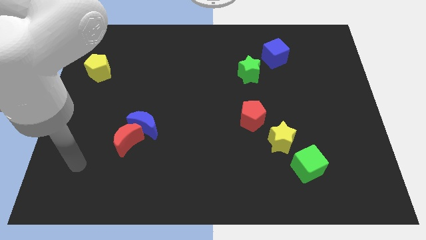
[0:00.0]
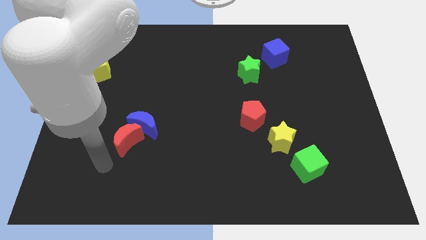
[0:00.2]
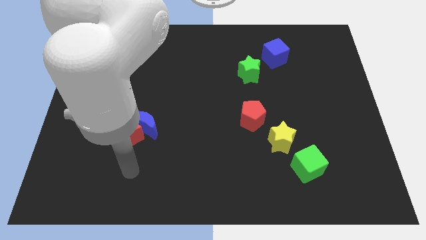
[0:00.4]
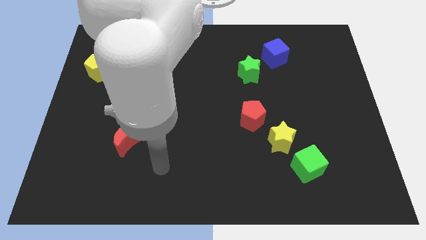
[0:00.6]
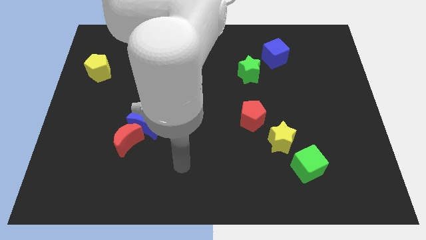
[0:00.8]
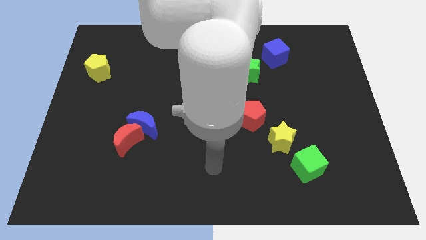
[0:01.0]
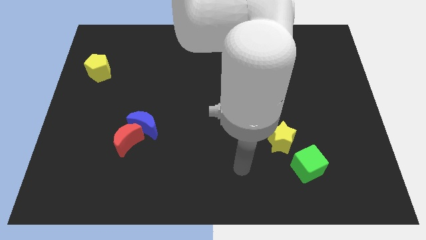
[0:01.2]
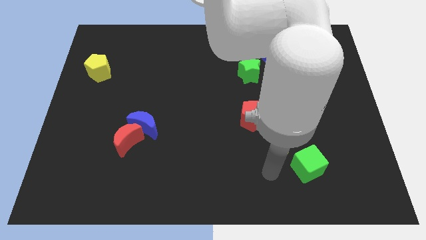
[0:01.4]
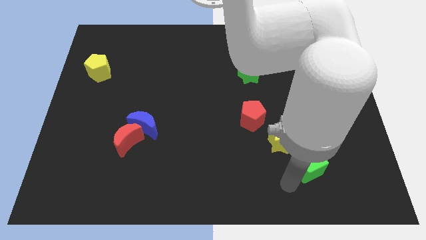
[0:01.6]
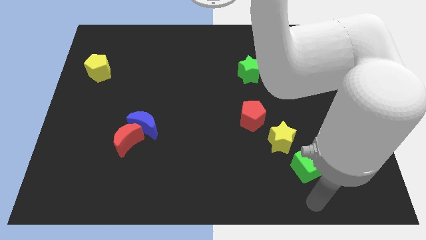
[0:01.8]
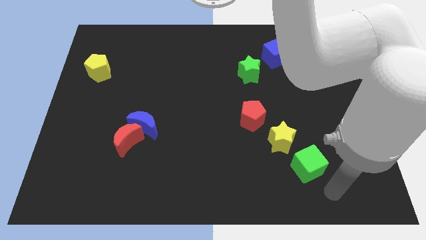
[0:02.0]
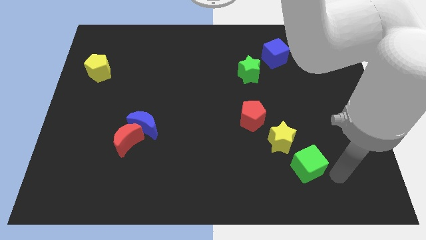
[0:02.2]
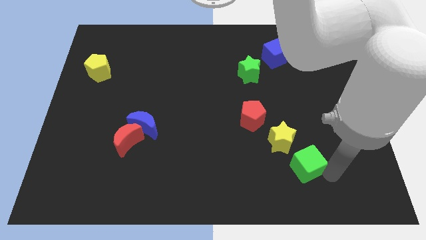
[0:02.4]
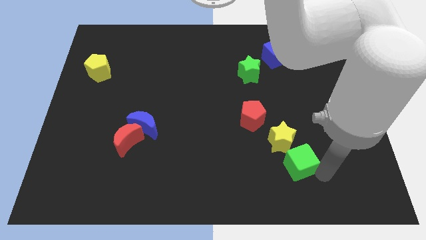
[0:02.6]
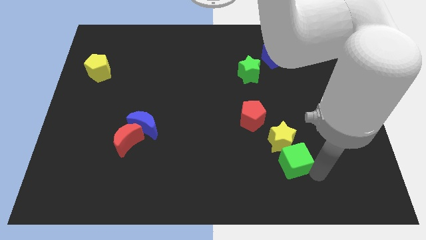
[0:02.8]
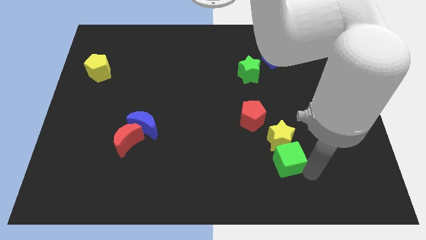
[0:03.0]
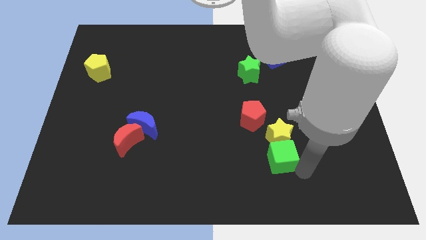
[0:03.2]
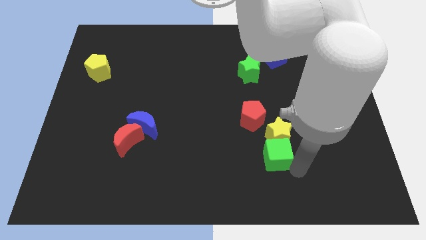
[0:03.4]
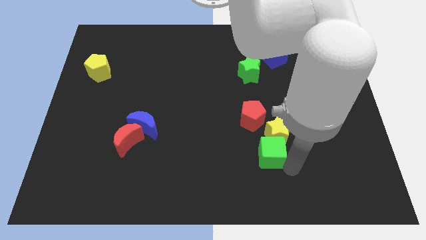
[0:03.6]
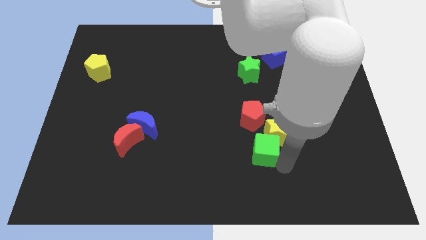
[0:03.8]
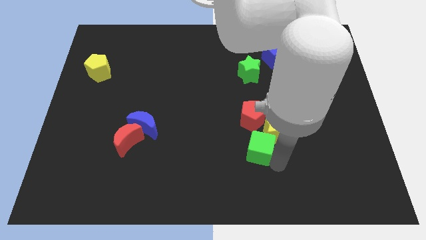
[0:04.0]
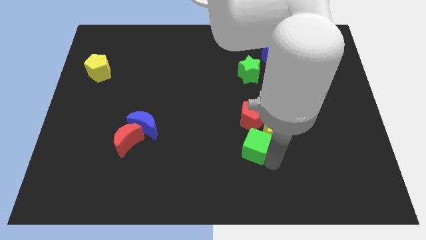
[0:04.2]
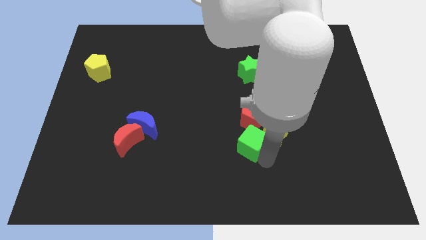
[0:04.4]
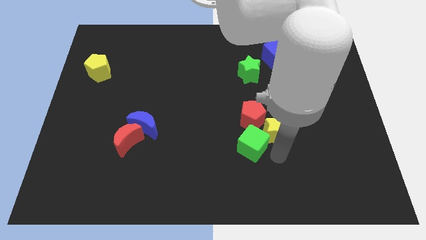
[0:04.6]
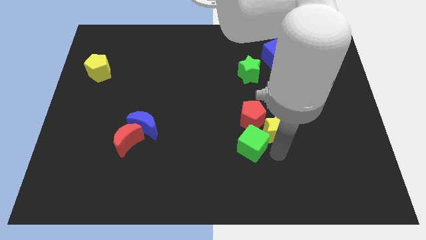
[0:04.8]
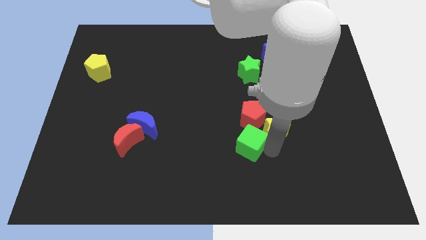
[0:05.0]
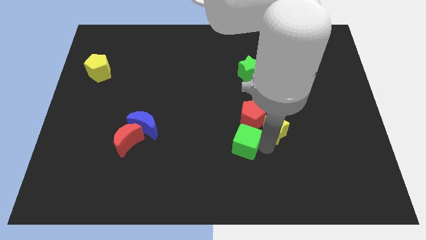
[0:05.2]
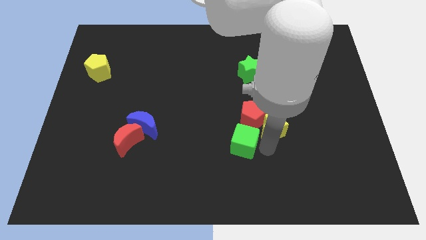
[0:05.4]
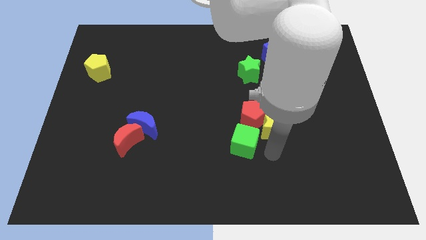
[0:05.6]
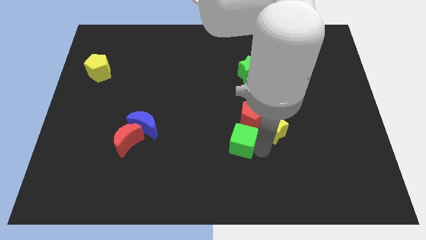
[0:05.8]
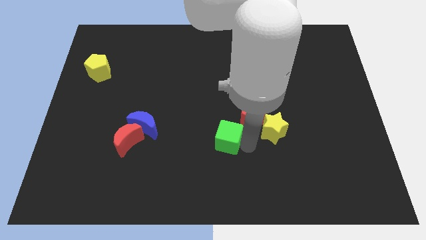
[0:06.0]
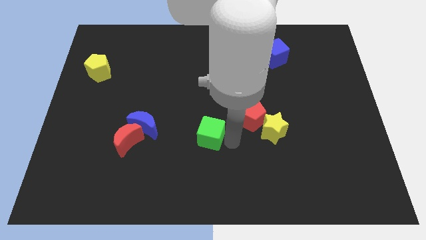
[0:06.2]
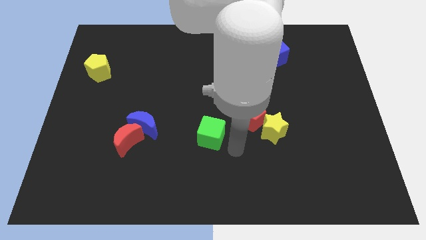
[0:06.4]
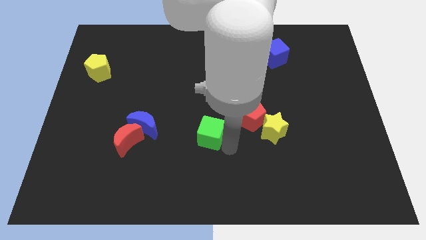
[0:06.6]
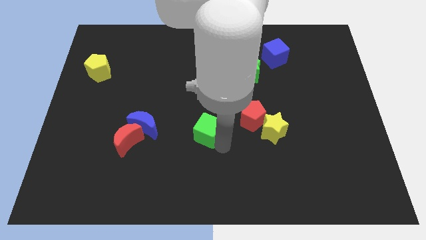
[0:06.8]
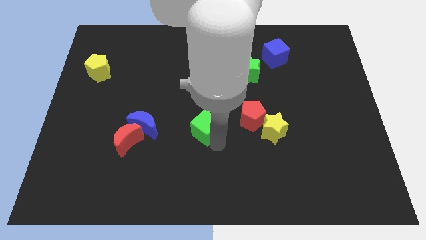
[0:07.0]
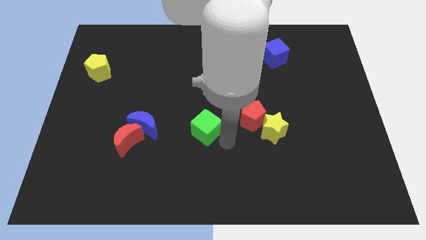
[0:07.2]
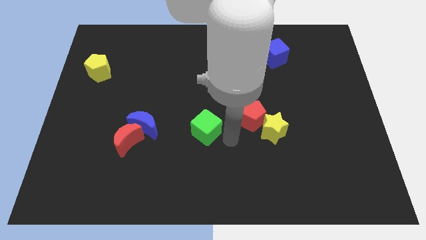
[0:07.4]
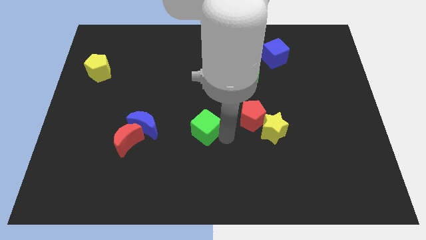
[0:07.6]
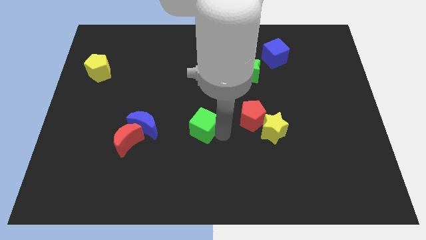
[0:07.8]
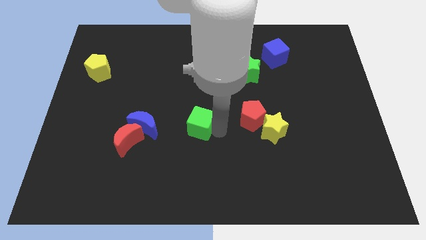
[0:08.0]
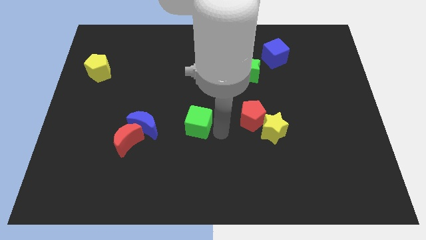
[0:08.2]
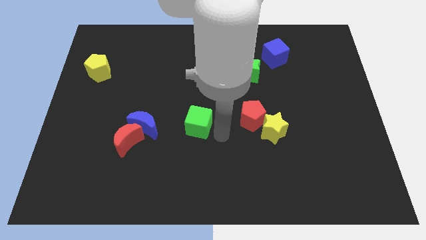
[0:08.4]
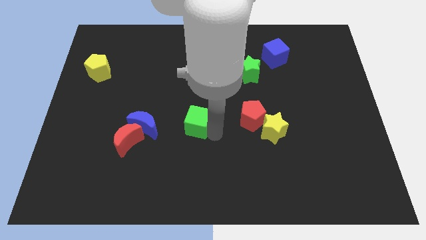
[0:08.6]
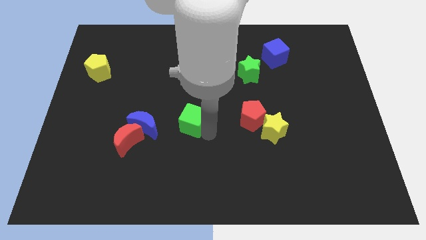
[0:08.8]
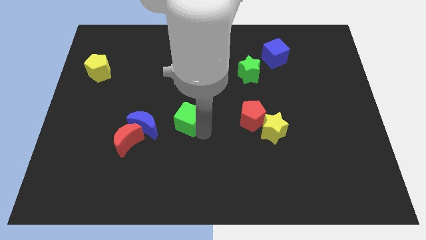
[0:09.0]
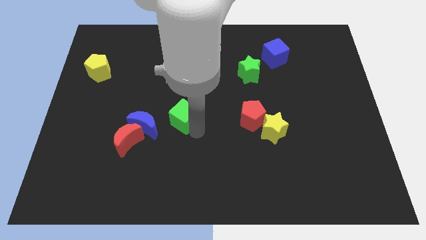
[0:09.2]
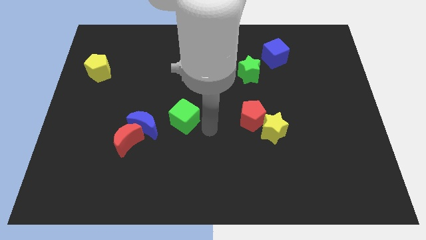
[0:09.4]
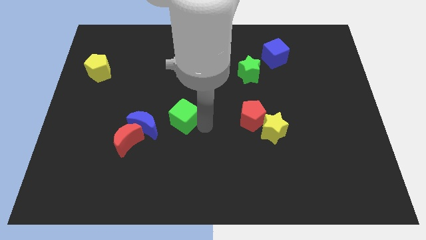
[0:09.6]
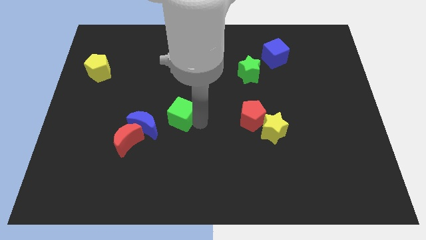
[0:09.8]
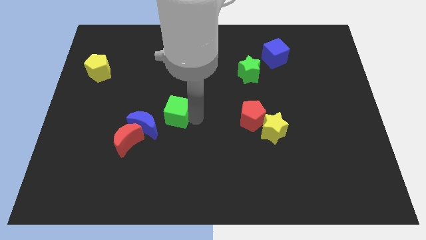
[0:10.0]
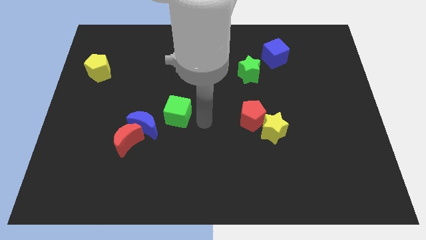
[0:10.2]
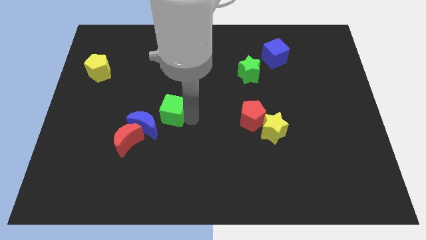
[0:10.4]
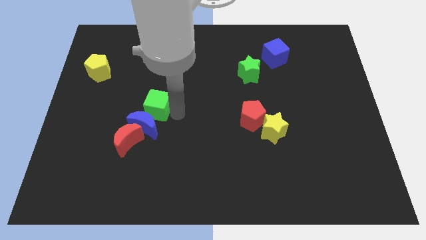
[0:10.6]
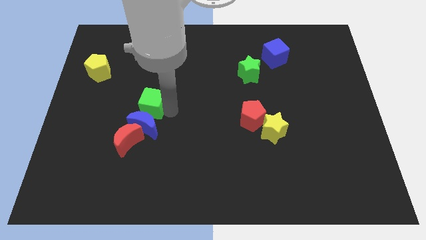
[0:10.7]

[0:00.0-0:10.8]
push the green cube diagonally up and to the left of the blue moon

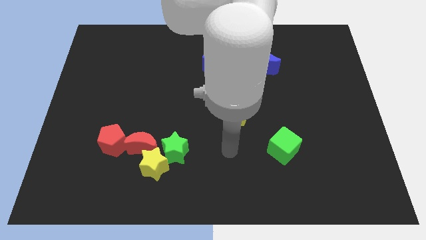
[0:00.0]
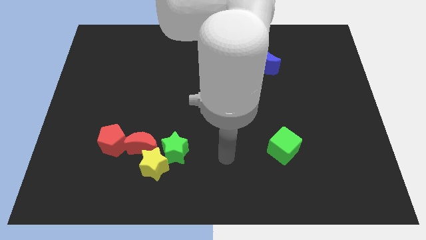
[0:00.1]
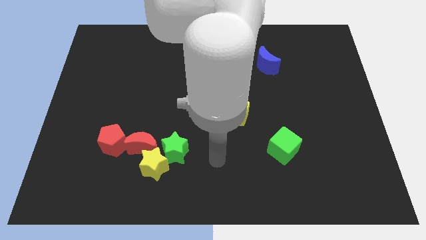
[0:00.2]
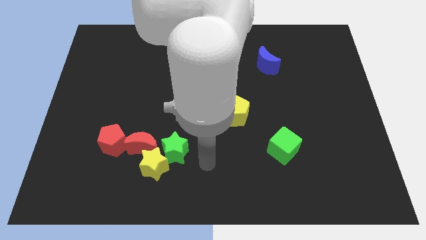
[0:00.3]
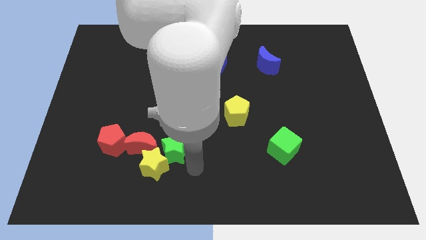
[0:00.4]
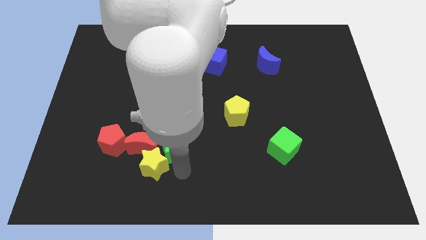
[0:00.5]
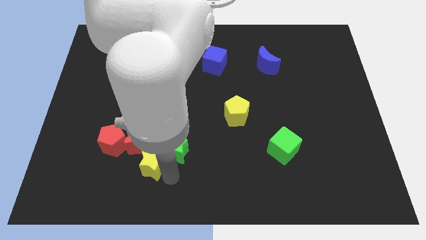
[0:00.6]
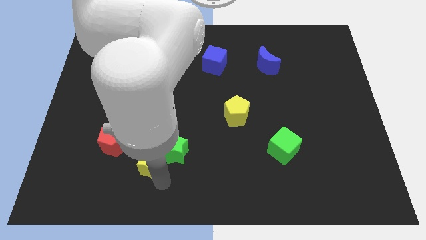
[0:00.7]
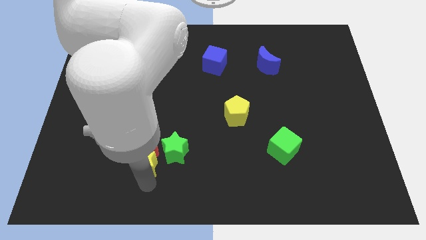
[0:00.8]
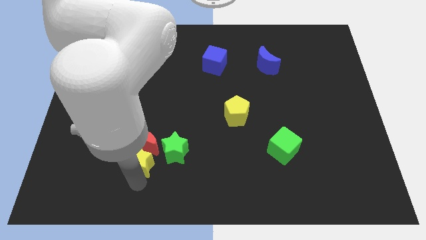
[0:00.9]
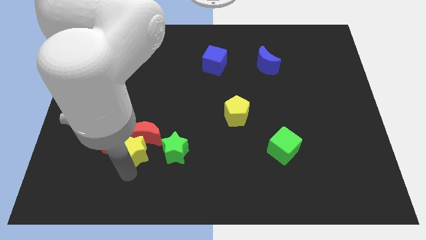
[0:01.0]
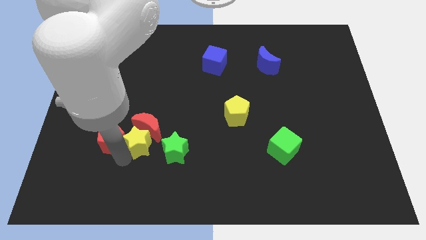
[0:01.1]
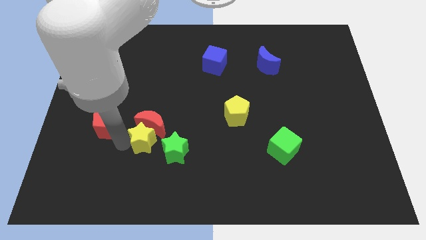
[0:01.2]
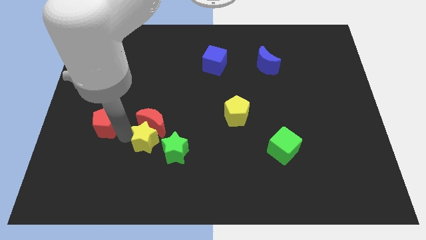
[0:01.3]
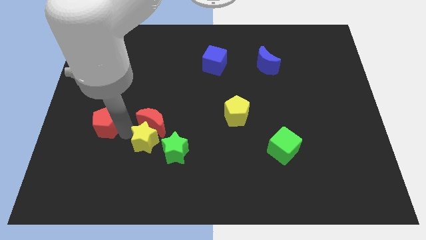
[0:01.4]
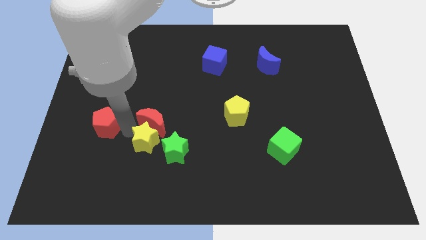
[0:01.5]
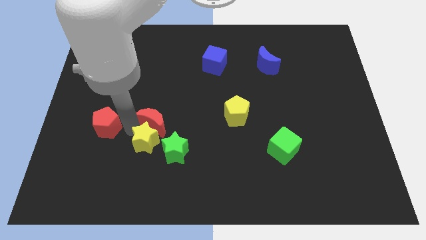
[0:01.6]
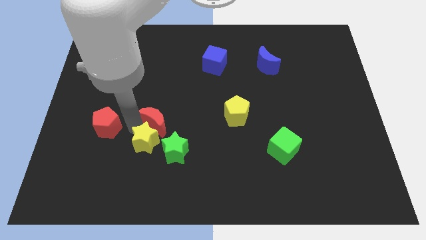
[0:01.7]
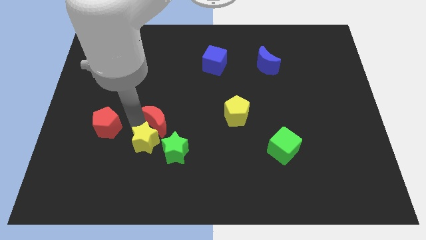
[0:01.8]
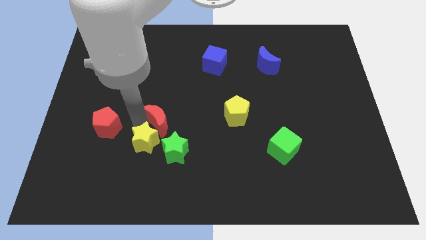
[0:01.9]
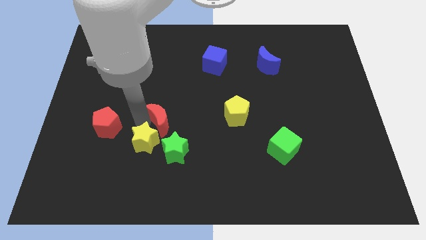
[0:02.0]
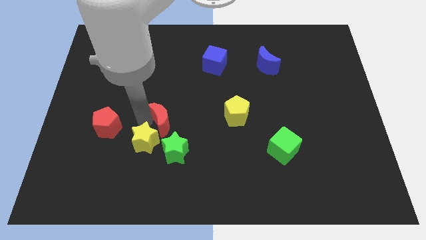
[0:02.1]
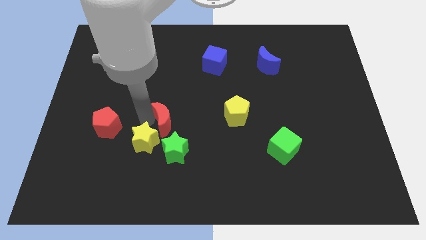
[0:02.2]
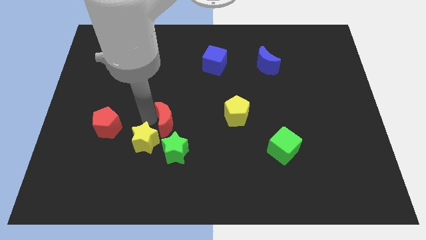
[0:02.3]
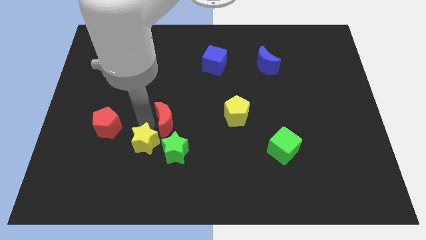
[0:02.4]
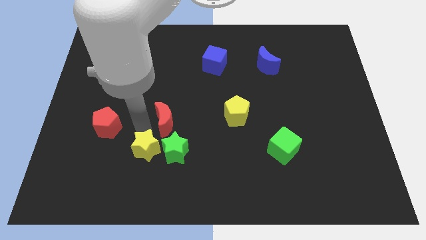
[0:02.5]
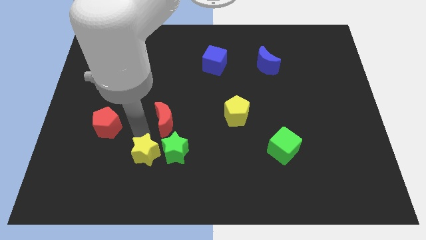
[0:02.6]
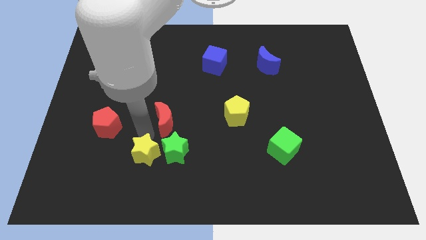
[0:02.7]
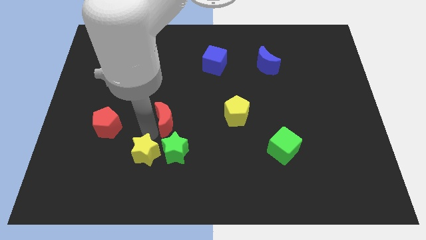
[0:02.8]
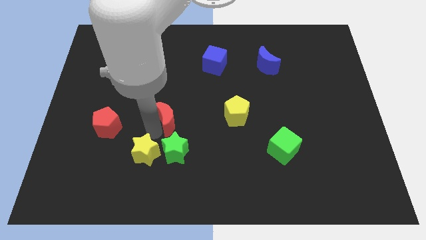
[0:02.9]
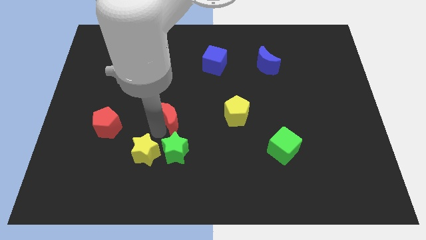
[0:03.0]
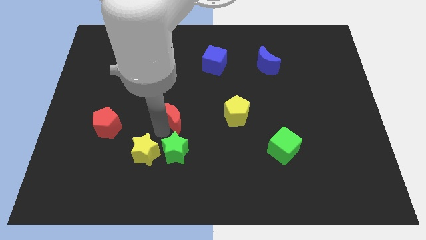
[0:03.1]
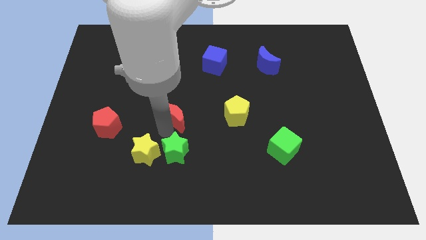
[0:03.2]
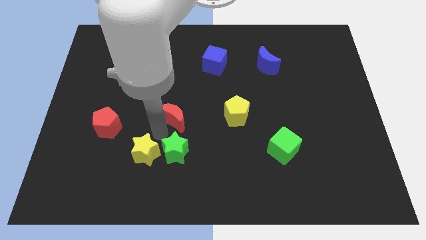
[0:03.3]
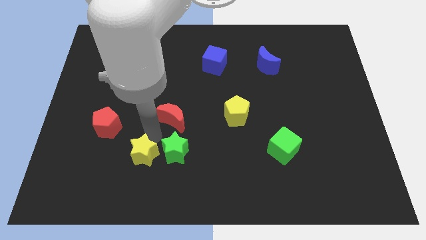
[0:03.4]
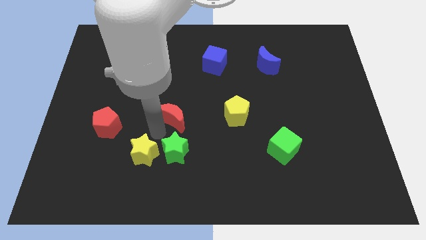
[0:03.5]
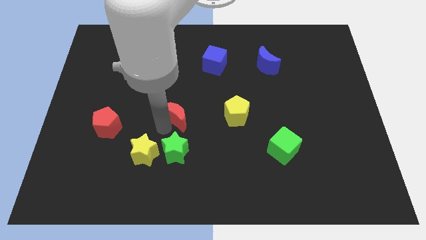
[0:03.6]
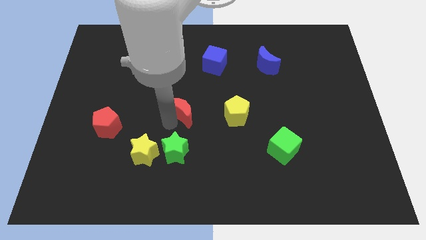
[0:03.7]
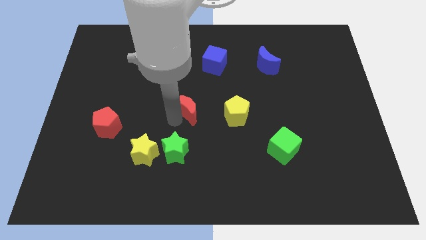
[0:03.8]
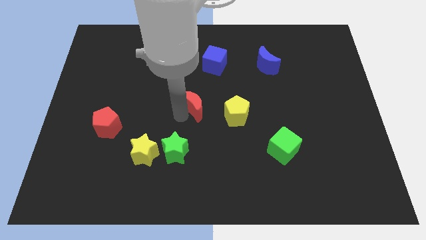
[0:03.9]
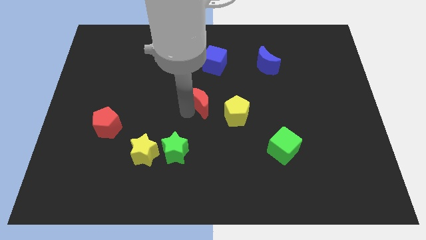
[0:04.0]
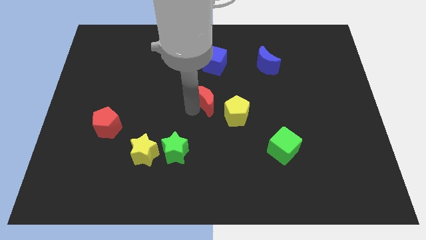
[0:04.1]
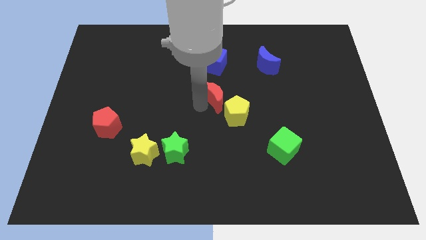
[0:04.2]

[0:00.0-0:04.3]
move the red moon above the yellow pentagon
